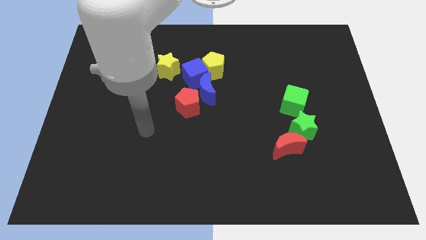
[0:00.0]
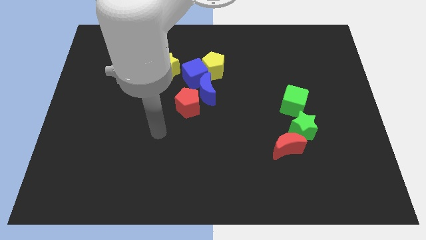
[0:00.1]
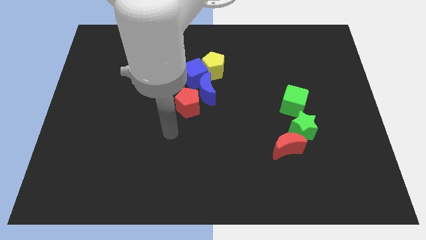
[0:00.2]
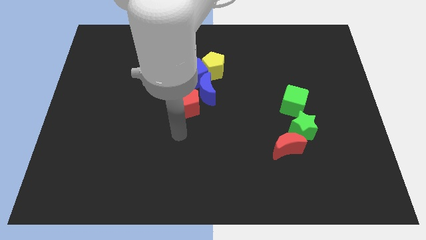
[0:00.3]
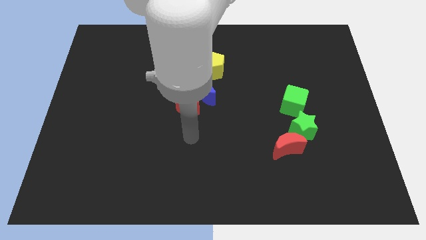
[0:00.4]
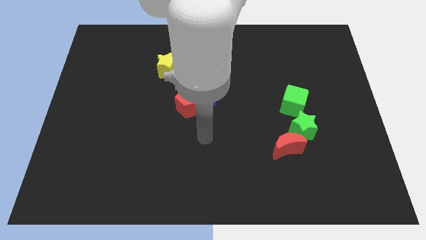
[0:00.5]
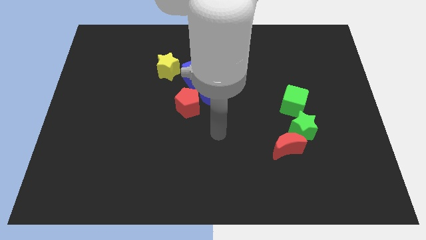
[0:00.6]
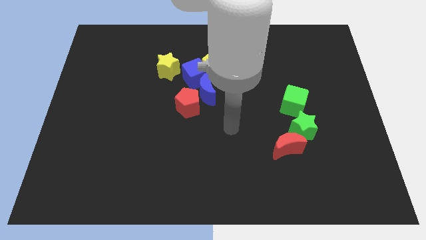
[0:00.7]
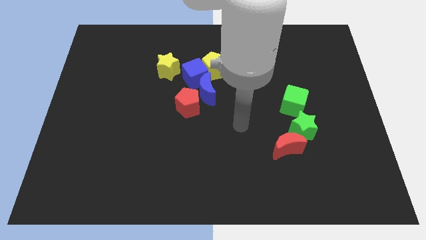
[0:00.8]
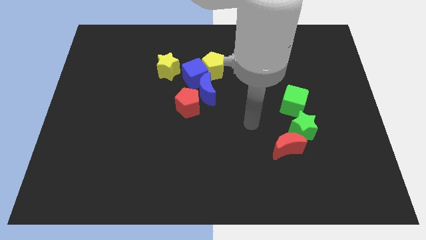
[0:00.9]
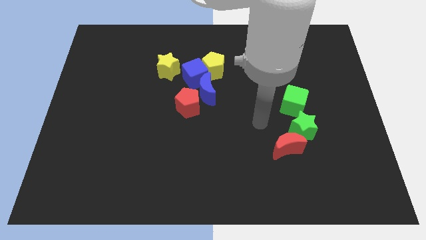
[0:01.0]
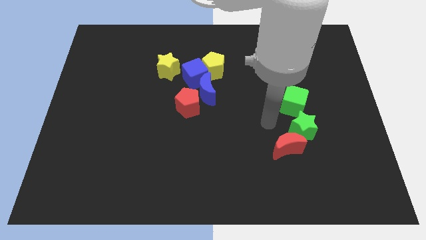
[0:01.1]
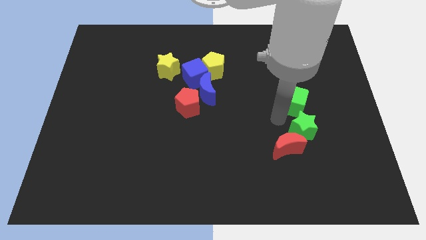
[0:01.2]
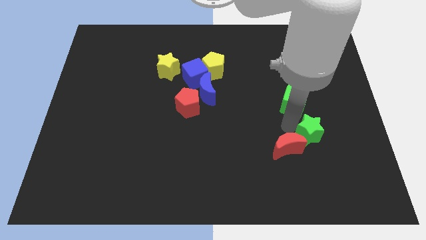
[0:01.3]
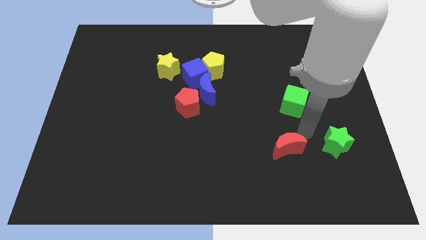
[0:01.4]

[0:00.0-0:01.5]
separate the red moon from the green star

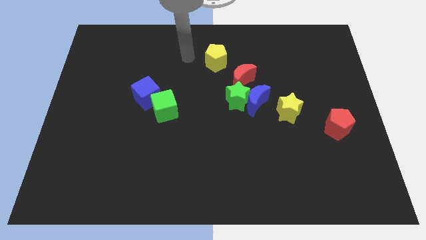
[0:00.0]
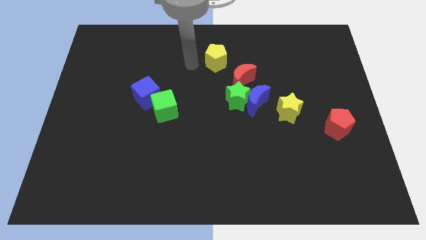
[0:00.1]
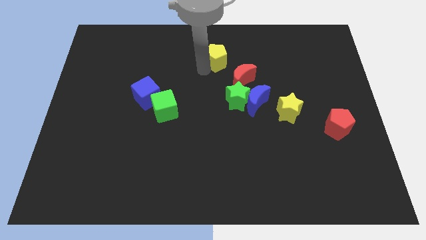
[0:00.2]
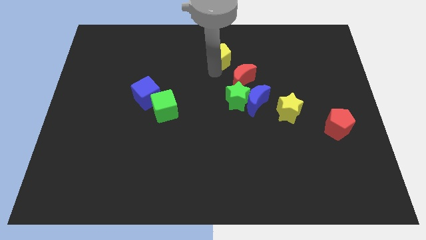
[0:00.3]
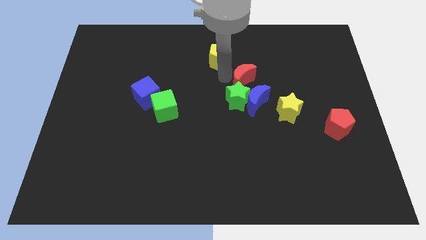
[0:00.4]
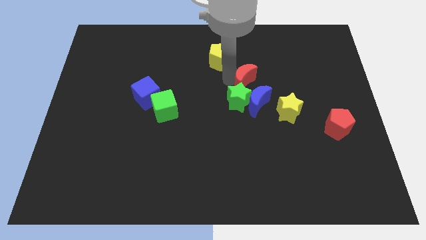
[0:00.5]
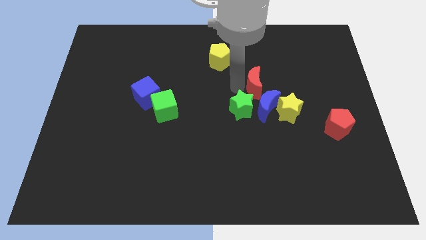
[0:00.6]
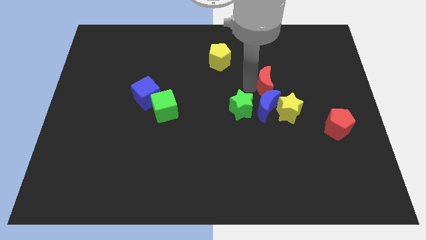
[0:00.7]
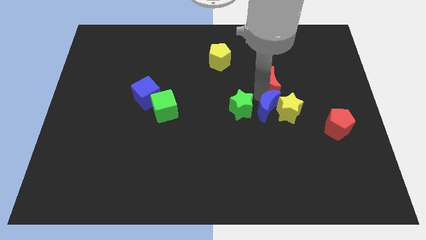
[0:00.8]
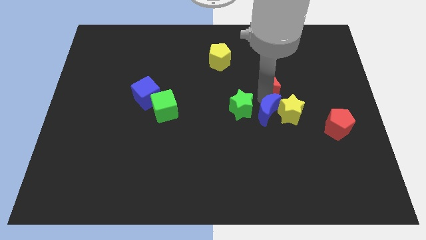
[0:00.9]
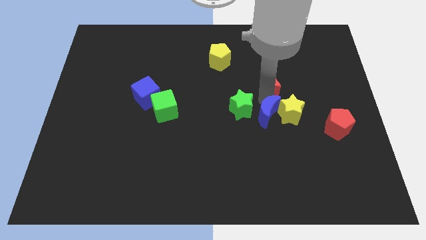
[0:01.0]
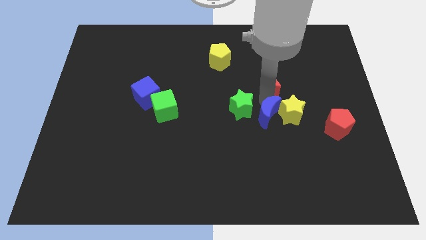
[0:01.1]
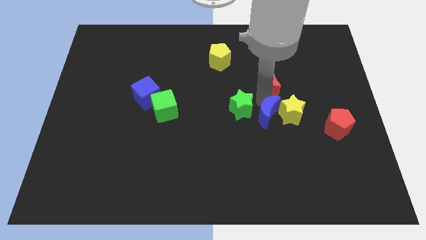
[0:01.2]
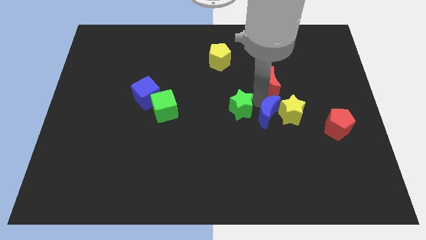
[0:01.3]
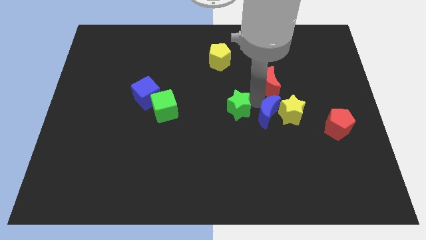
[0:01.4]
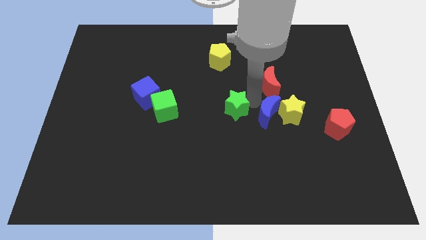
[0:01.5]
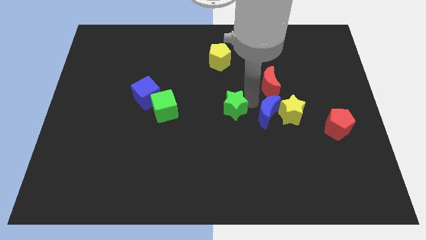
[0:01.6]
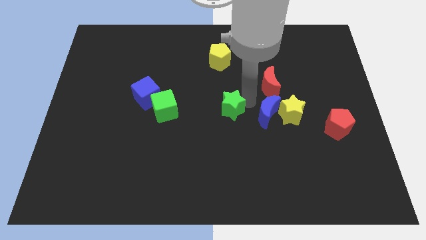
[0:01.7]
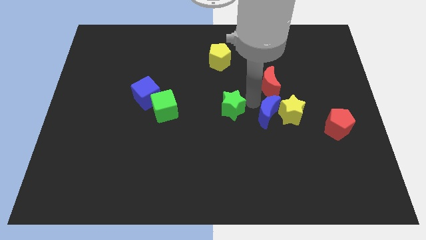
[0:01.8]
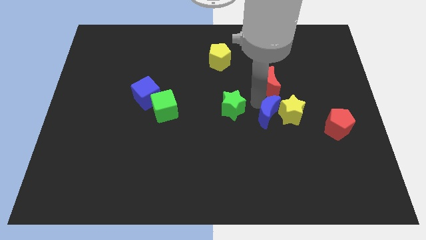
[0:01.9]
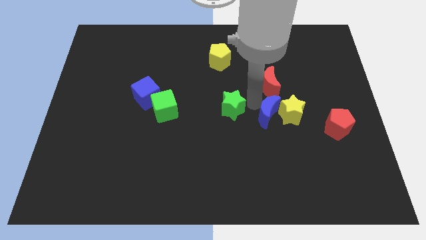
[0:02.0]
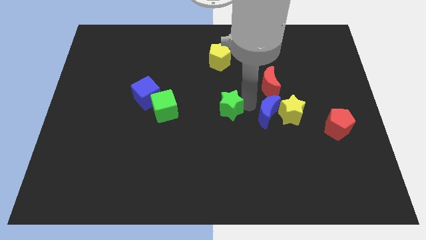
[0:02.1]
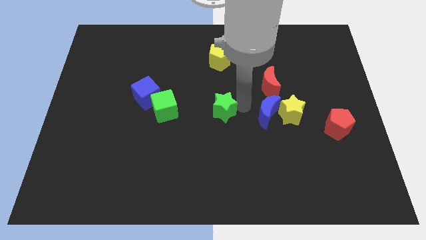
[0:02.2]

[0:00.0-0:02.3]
move the green star away from the blue moon and red moon

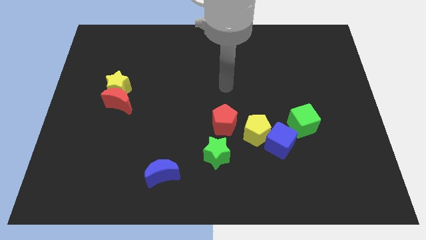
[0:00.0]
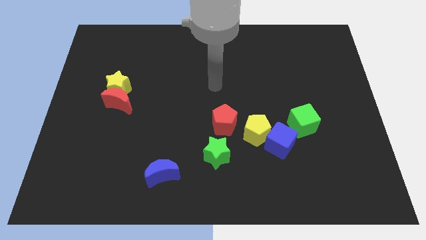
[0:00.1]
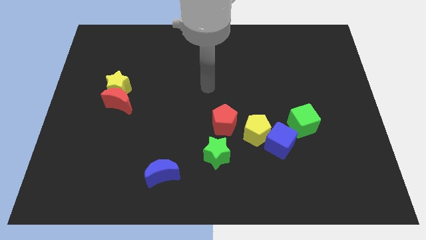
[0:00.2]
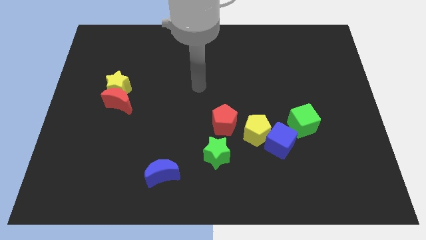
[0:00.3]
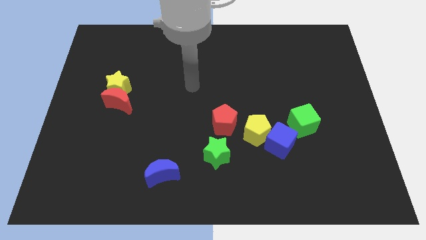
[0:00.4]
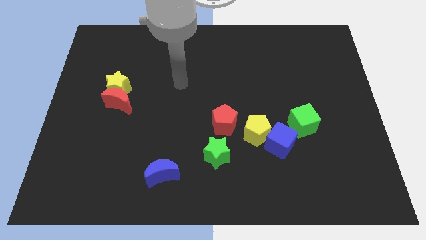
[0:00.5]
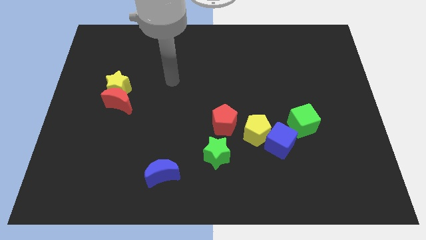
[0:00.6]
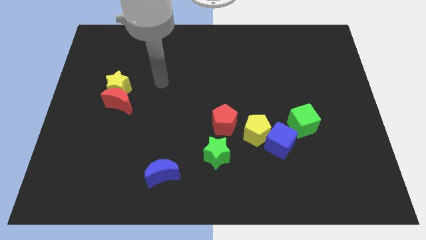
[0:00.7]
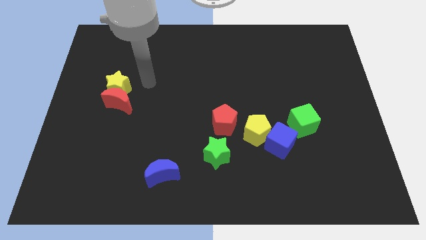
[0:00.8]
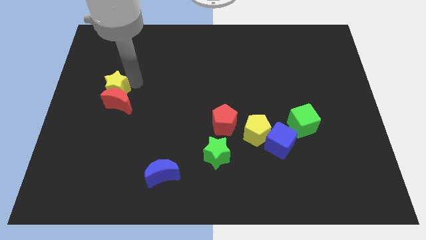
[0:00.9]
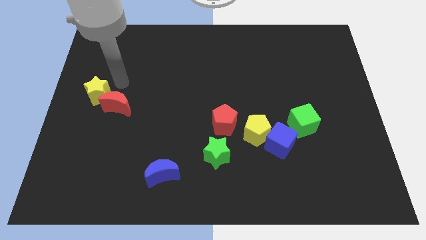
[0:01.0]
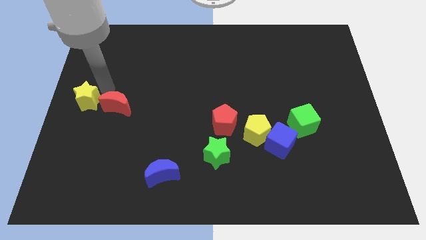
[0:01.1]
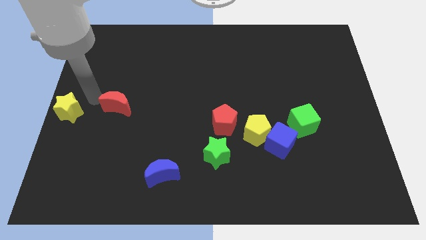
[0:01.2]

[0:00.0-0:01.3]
separate the red moon from the yellow star

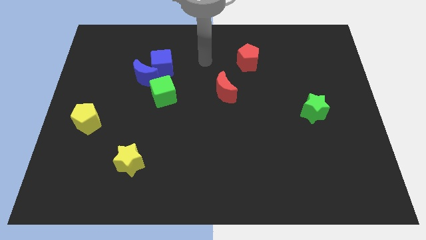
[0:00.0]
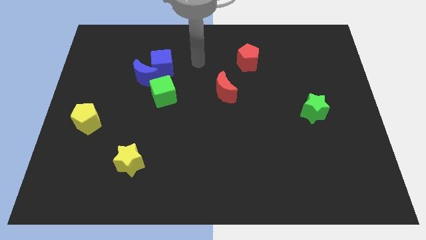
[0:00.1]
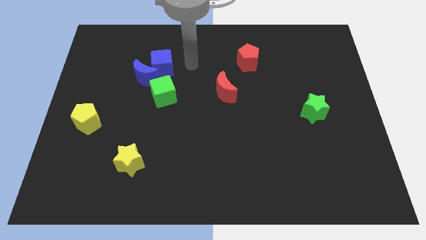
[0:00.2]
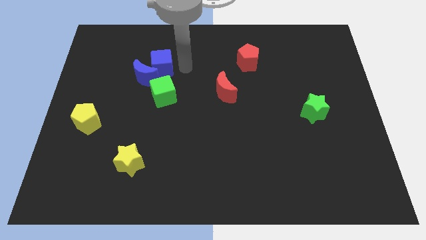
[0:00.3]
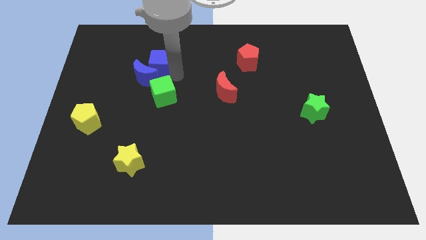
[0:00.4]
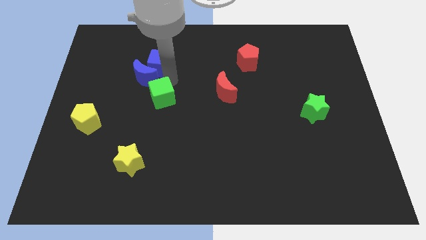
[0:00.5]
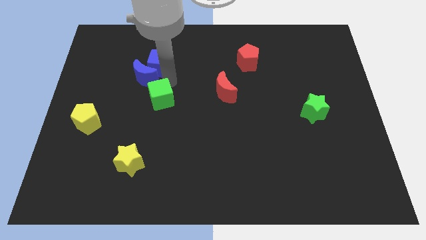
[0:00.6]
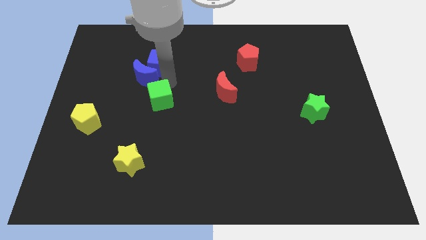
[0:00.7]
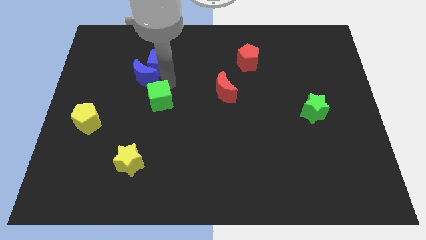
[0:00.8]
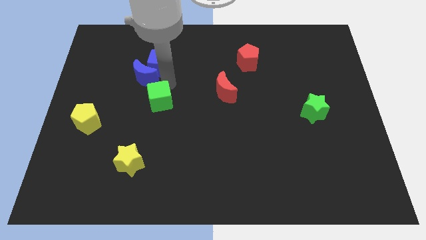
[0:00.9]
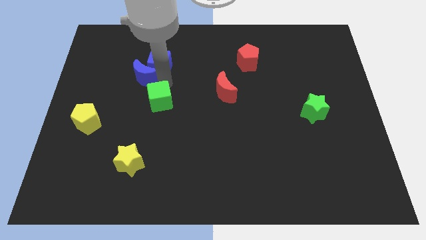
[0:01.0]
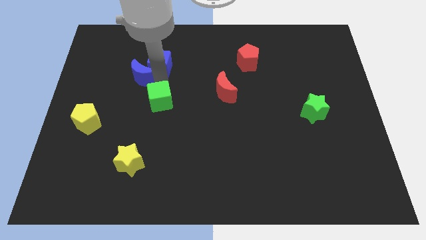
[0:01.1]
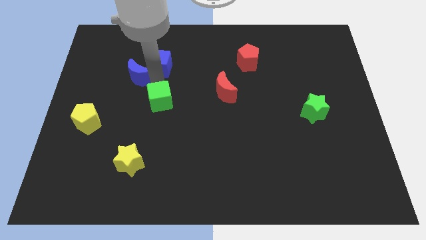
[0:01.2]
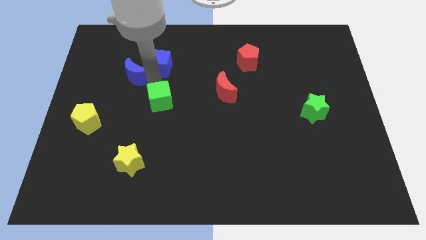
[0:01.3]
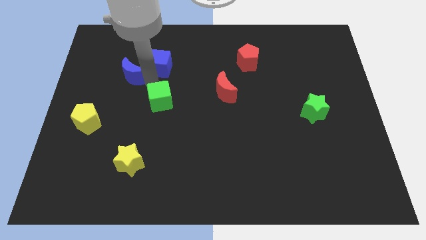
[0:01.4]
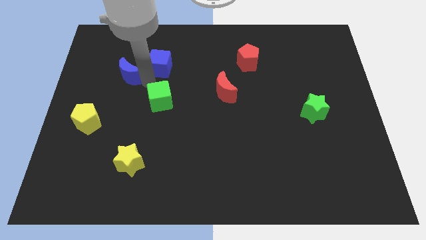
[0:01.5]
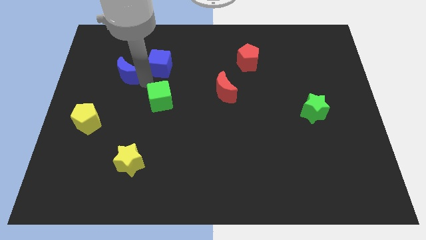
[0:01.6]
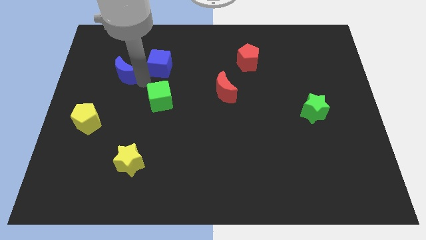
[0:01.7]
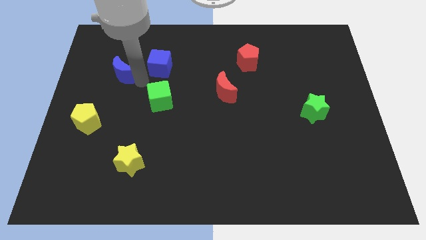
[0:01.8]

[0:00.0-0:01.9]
move the blue moon away from the blue cube and green cube

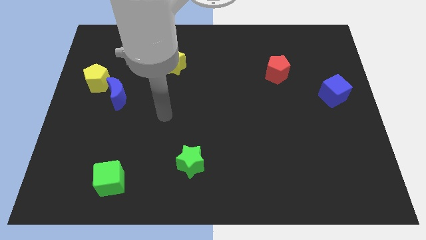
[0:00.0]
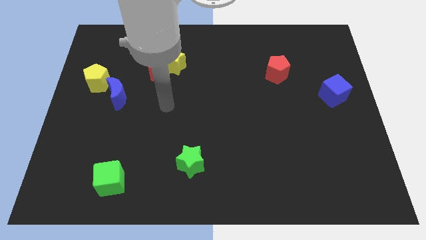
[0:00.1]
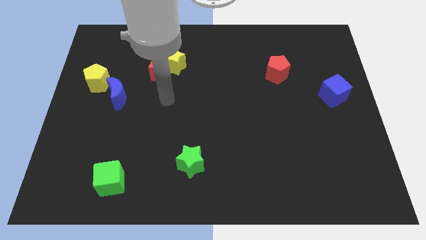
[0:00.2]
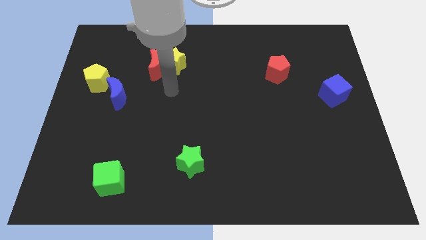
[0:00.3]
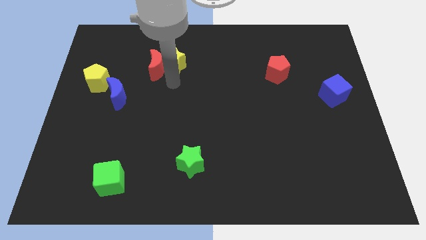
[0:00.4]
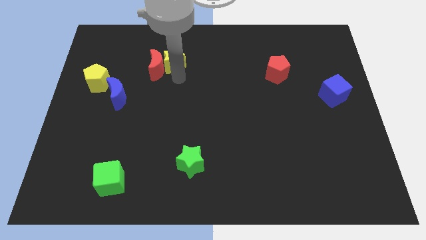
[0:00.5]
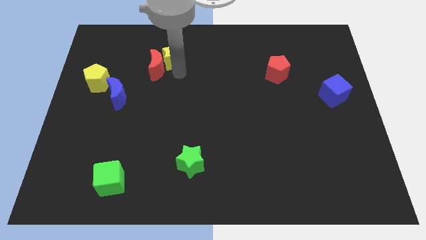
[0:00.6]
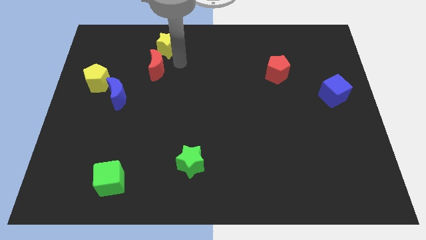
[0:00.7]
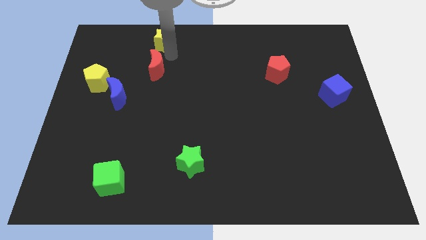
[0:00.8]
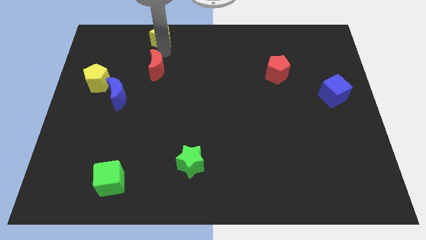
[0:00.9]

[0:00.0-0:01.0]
move the red moon away from the yellow star

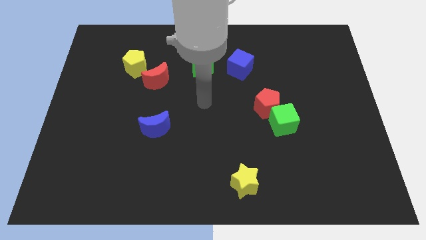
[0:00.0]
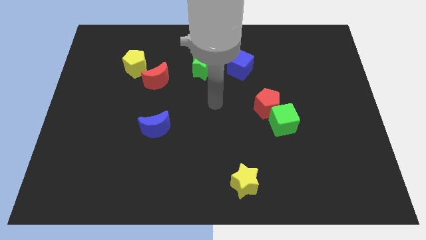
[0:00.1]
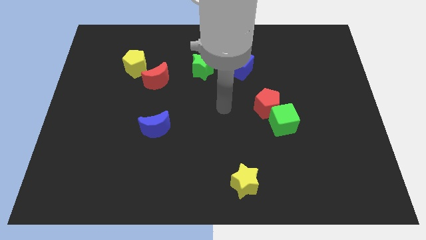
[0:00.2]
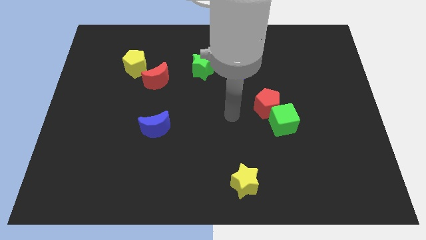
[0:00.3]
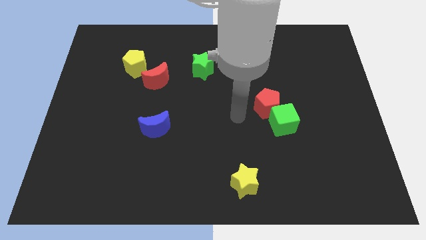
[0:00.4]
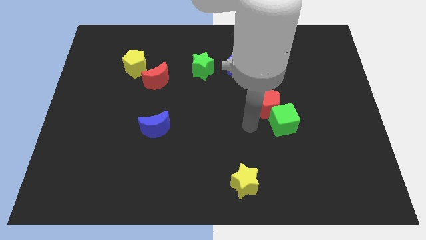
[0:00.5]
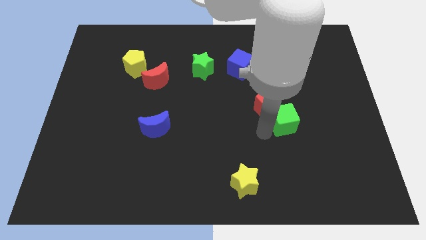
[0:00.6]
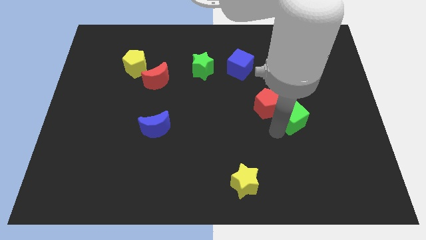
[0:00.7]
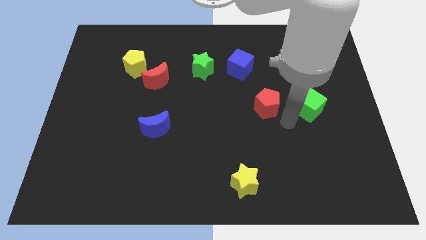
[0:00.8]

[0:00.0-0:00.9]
move the red pentagon away from the green cube

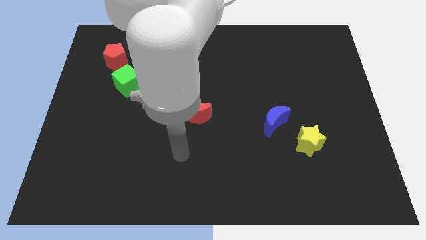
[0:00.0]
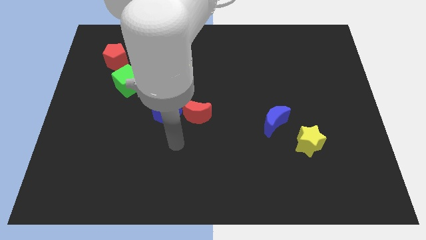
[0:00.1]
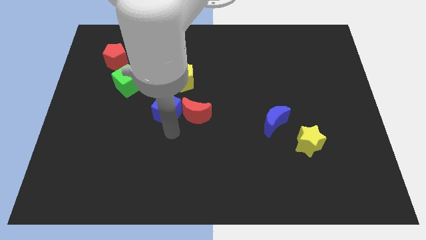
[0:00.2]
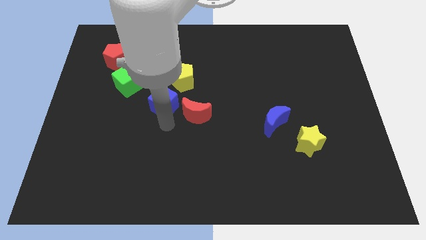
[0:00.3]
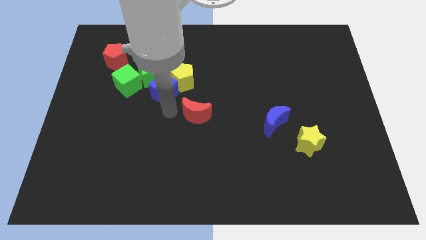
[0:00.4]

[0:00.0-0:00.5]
move the red moon away from the blue cube
